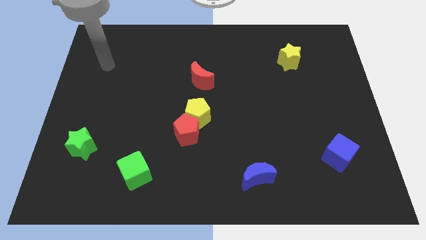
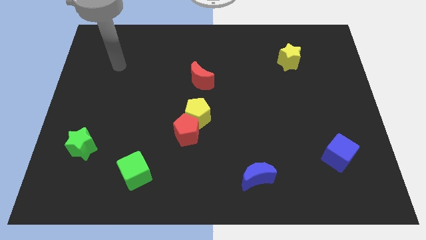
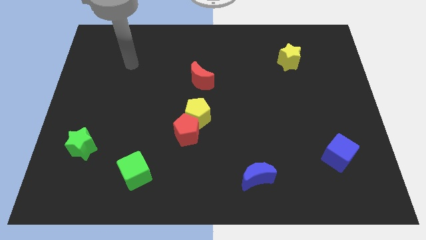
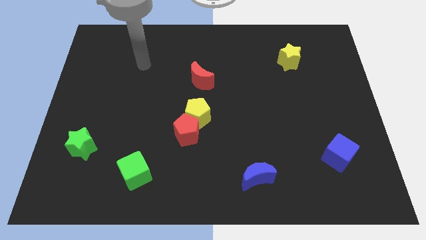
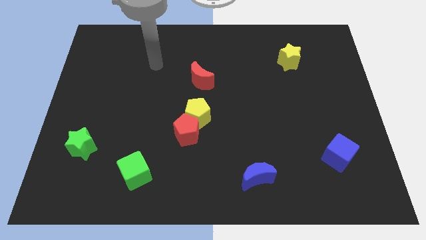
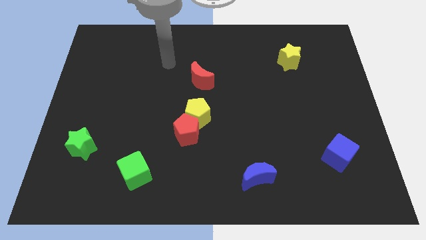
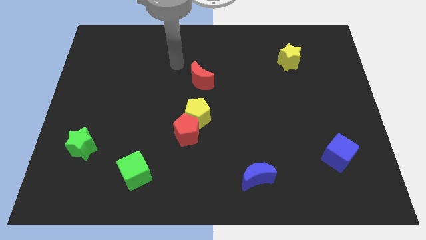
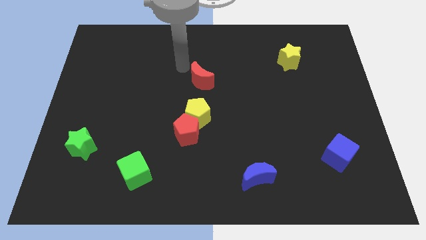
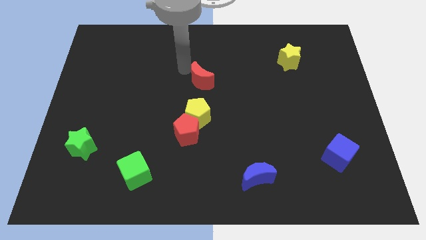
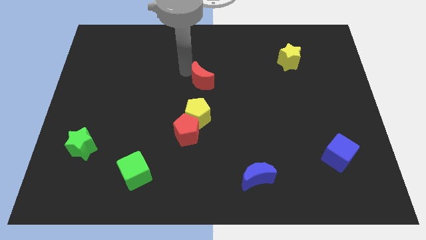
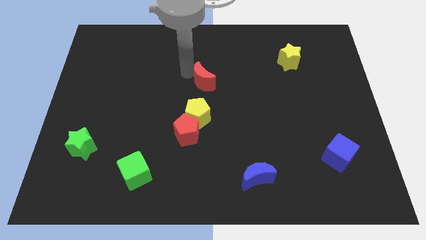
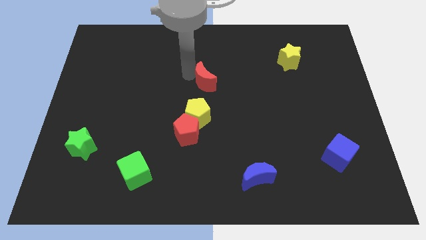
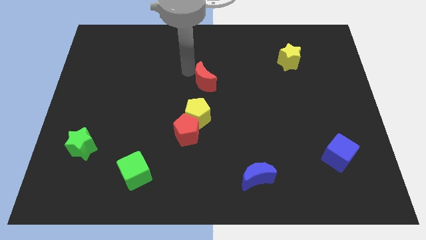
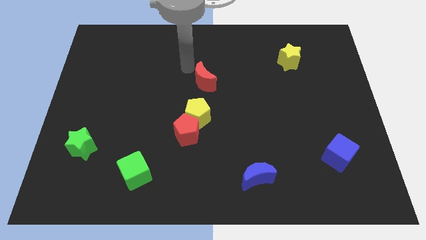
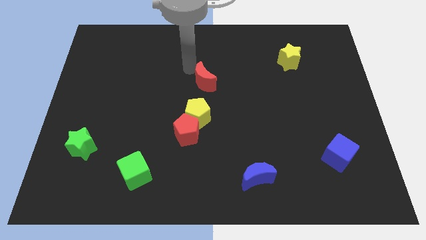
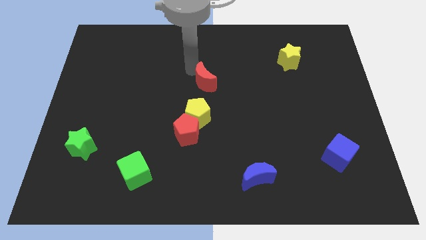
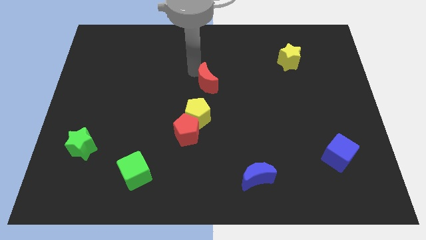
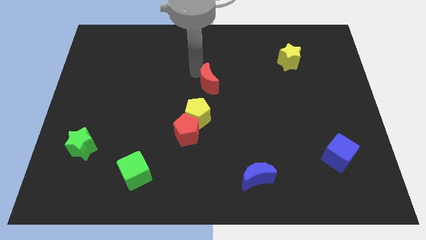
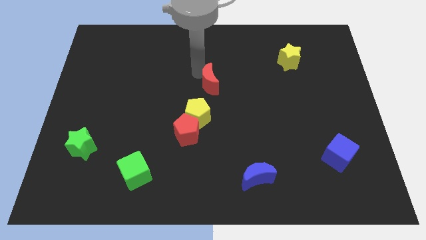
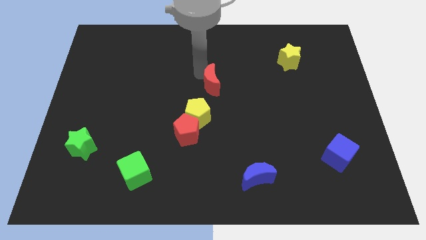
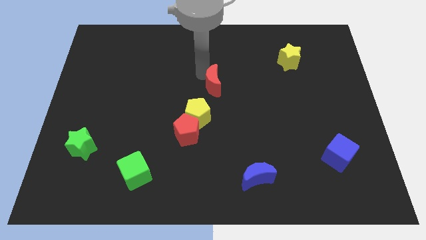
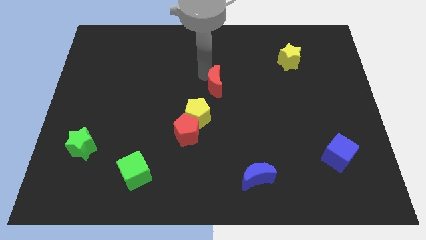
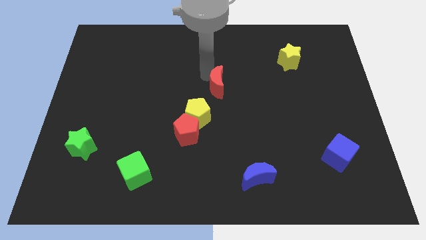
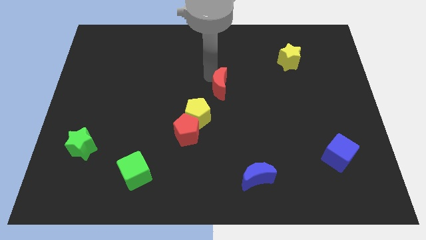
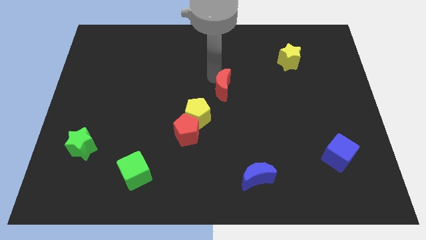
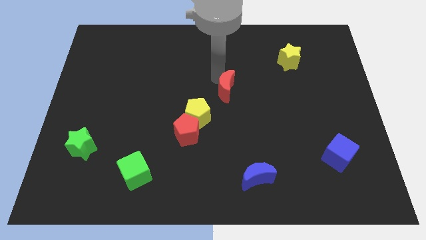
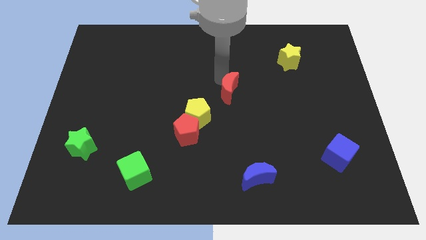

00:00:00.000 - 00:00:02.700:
slide the red moon a little down and then right

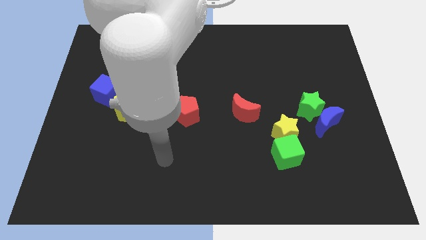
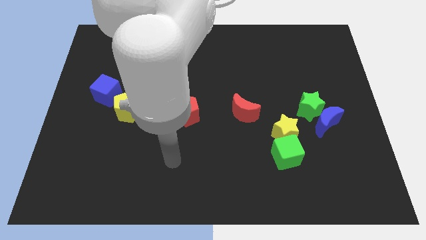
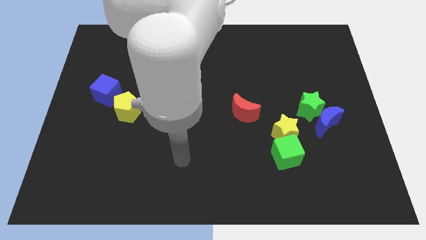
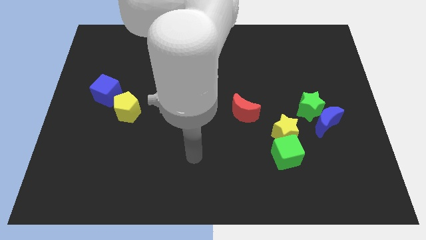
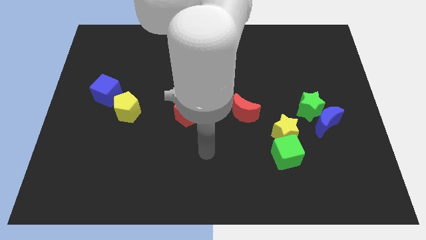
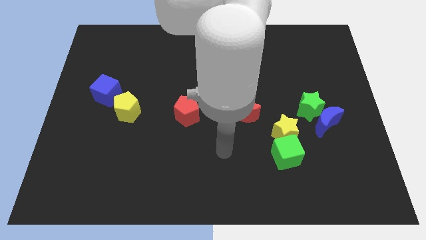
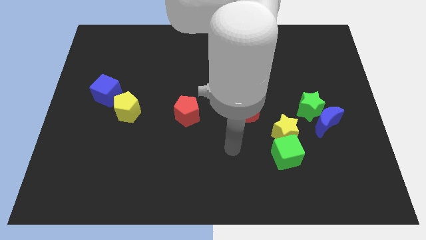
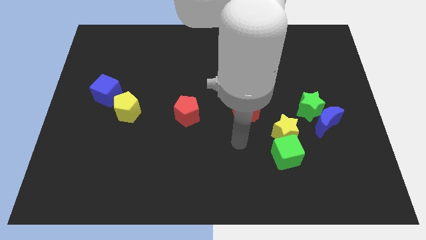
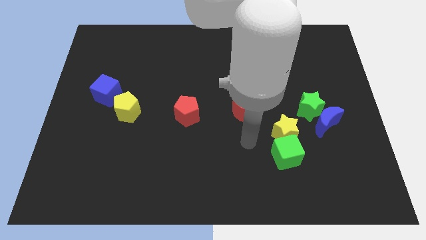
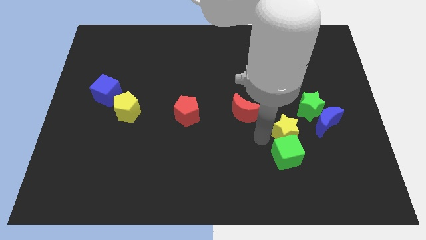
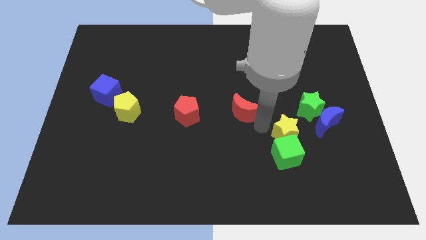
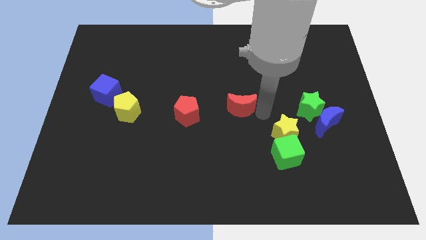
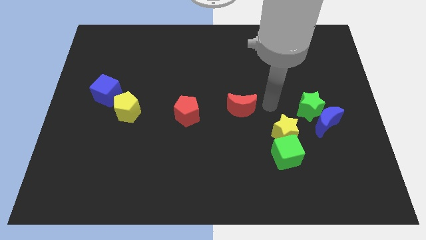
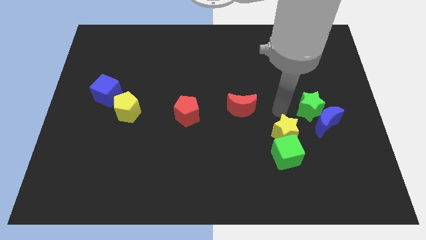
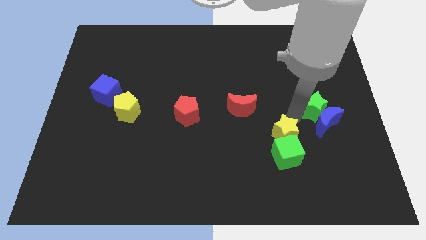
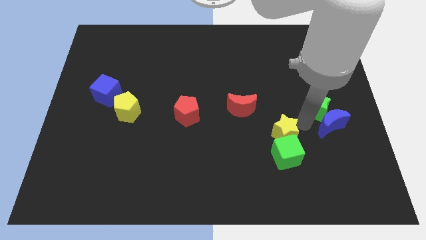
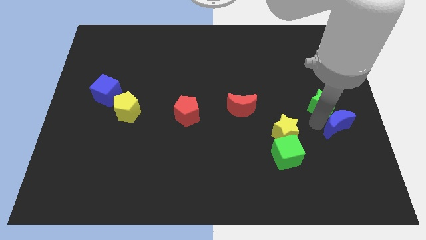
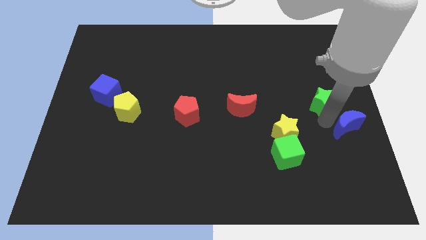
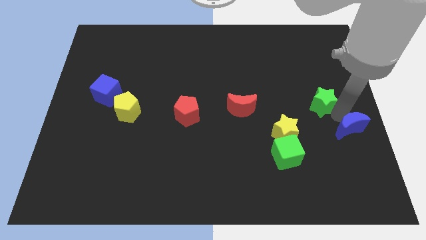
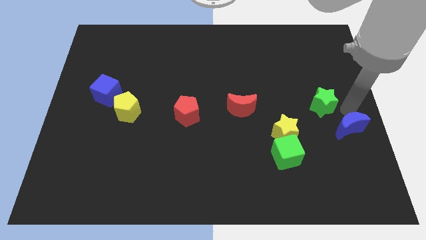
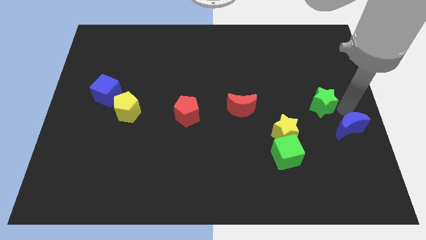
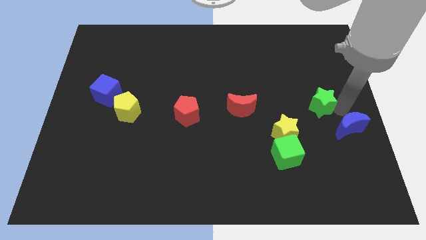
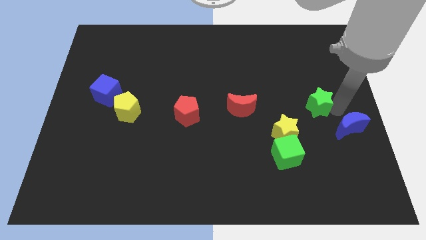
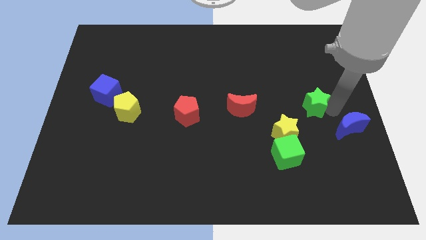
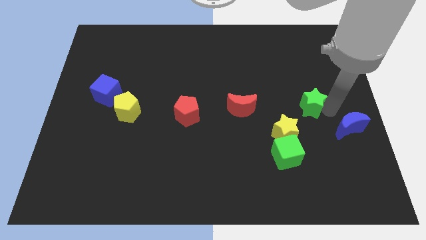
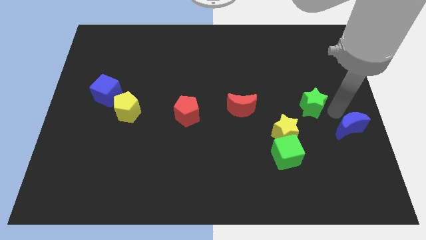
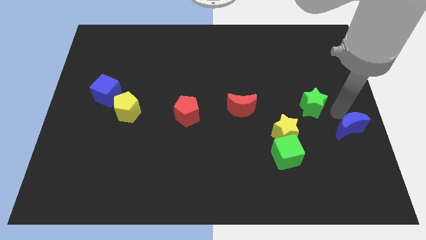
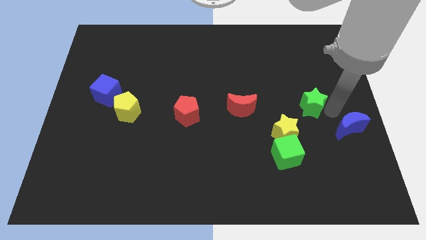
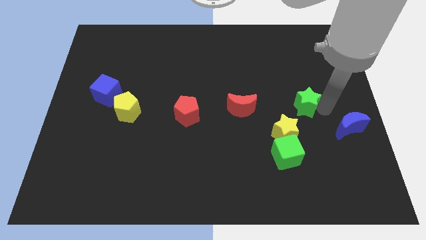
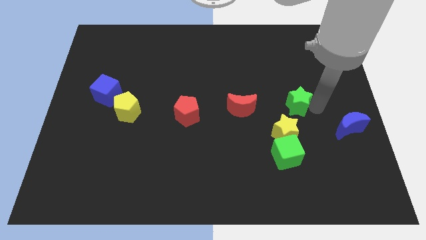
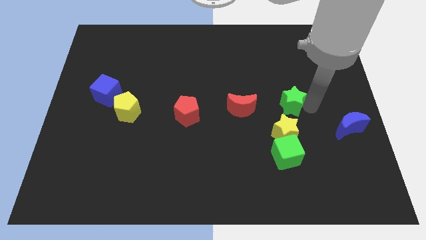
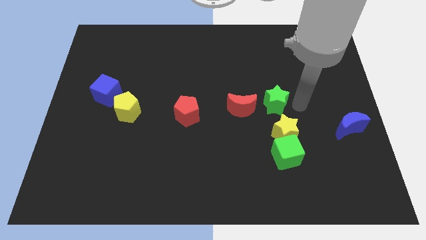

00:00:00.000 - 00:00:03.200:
slightly push the green star to the left

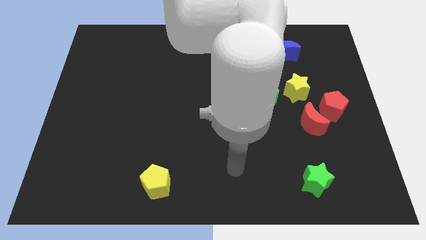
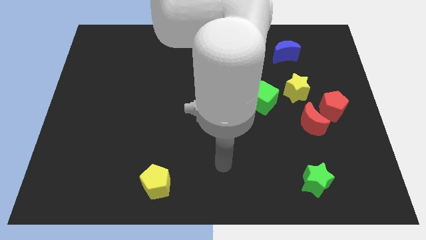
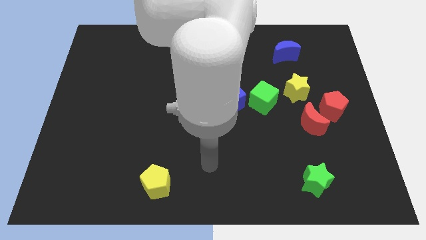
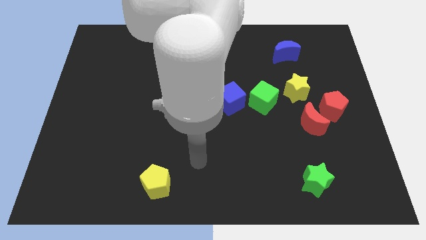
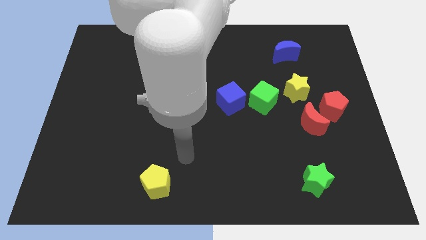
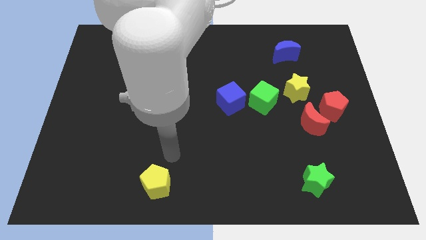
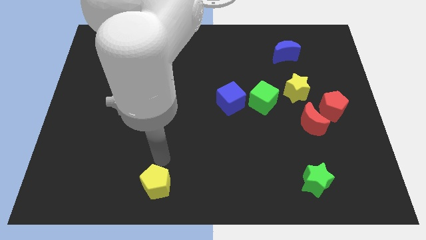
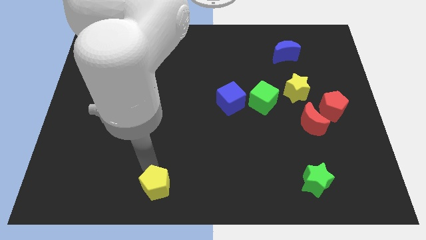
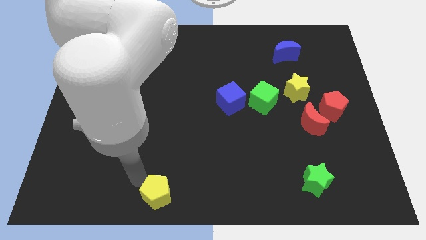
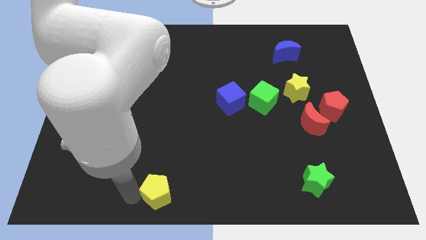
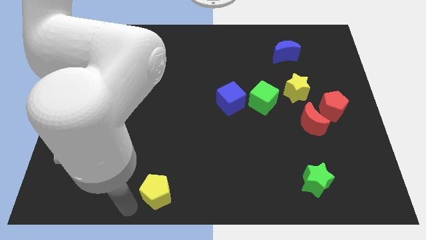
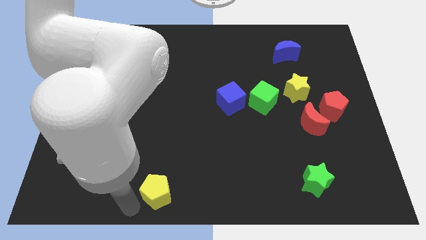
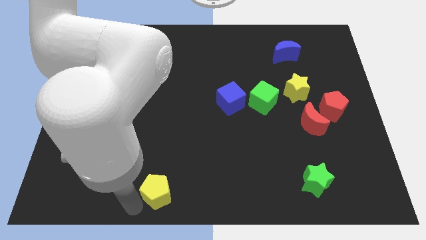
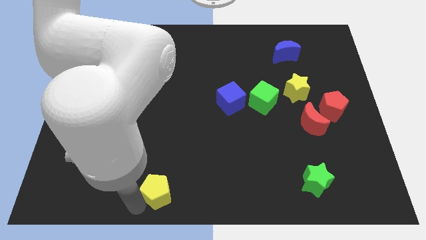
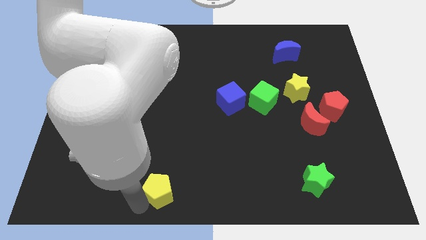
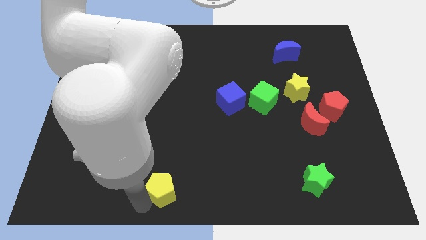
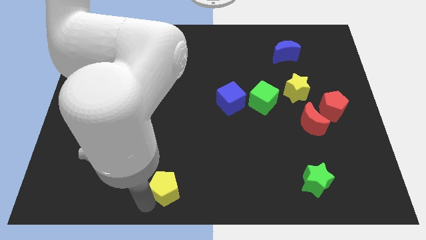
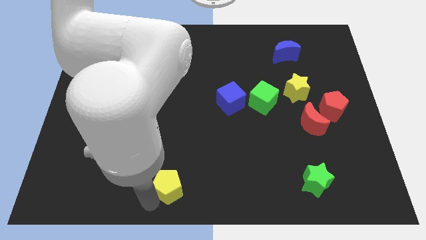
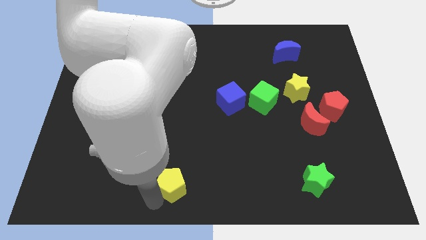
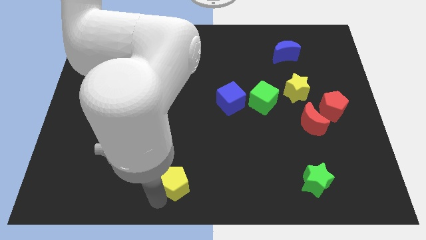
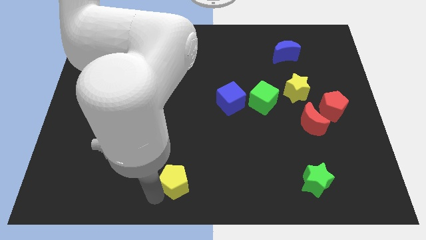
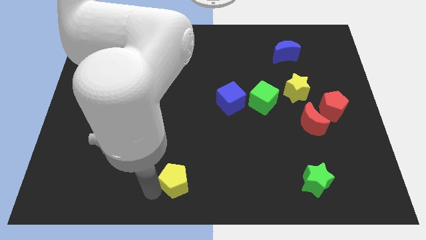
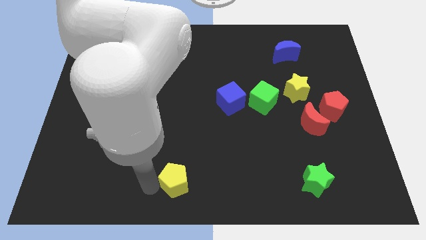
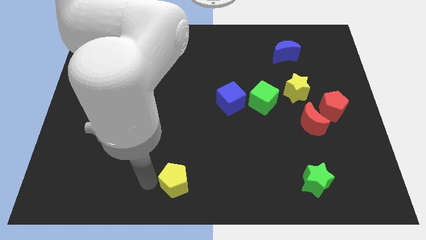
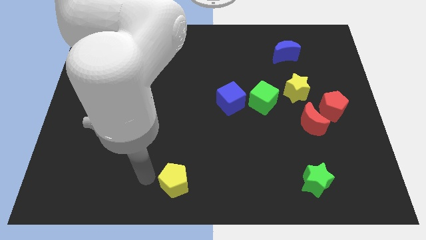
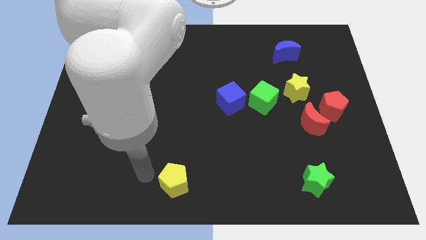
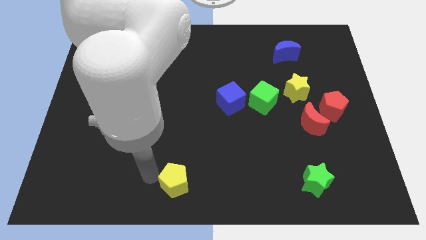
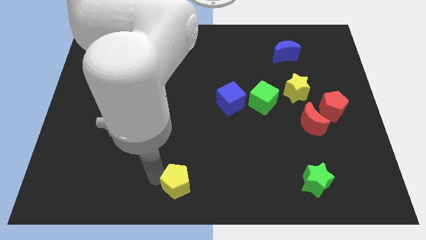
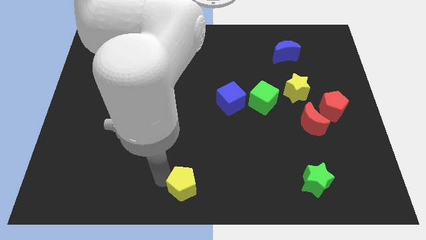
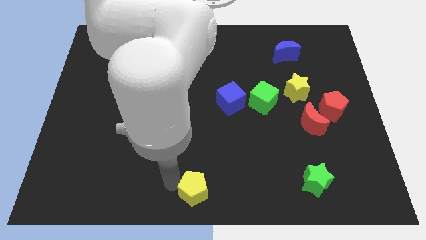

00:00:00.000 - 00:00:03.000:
move the yellow pentagon to the right a little bit
